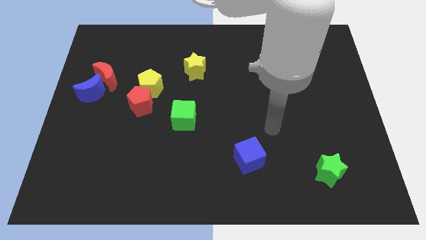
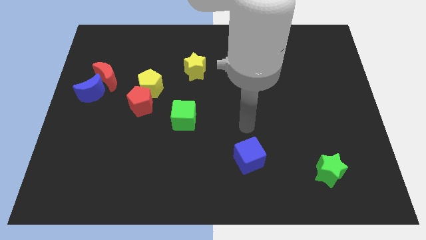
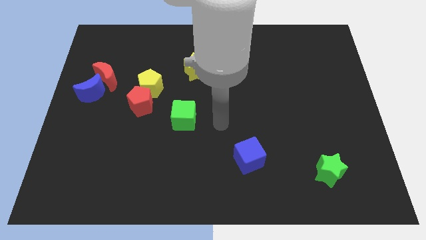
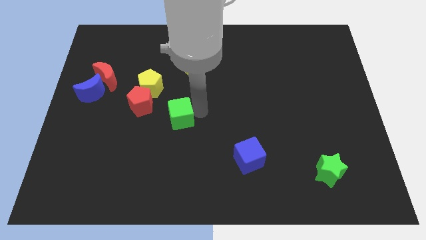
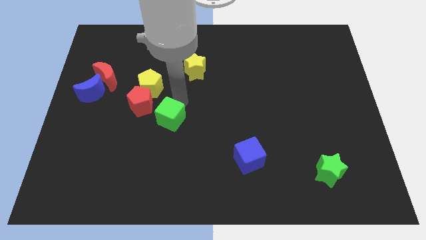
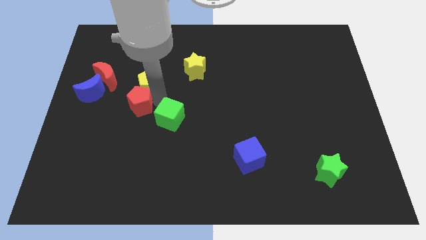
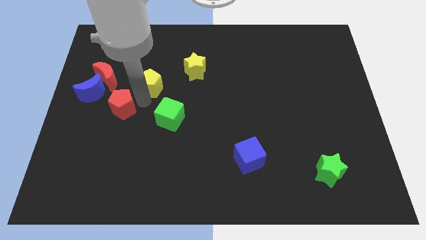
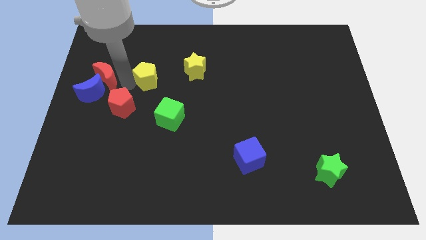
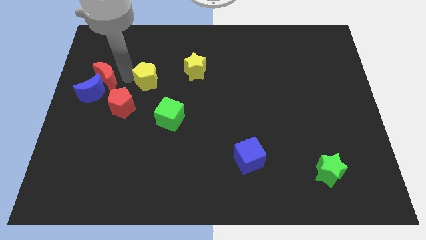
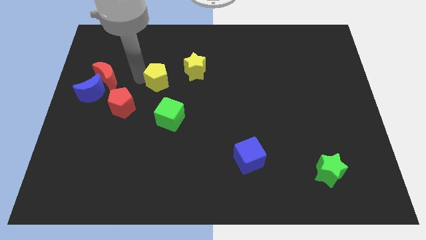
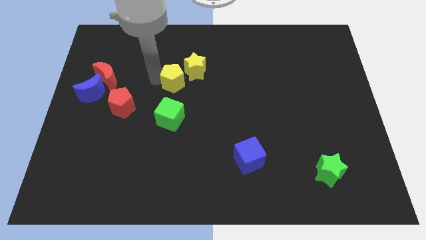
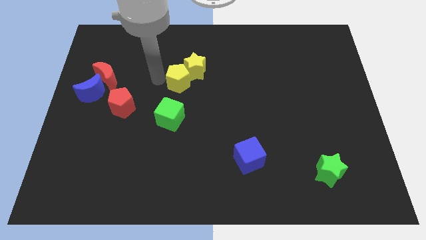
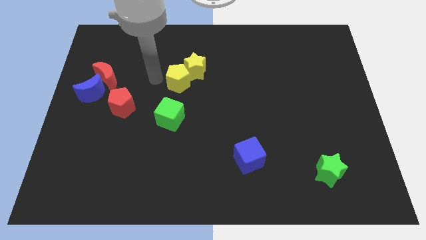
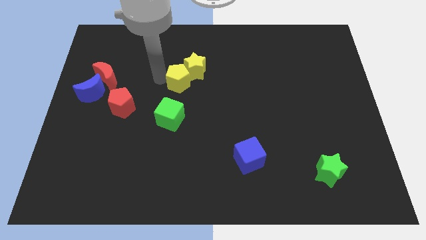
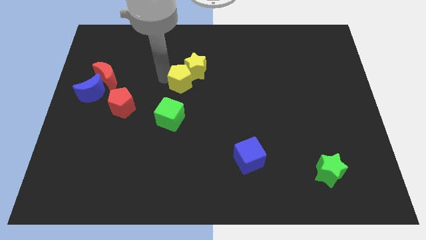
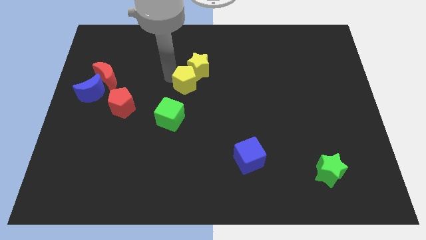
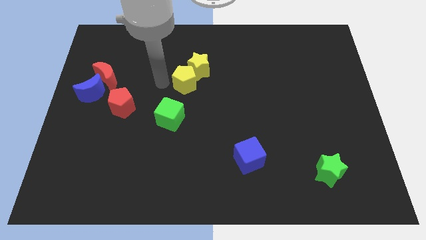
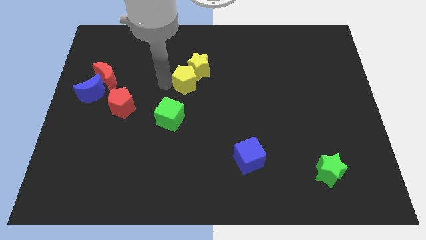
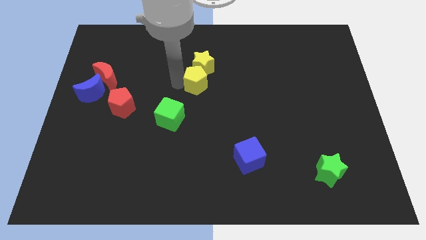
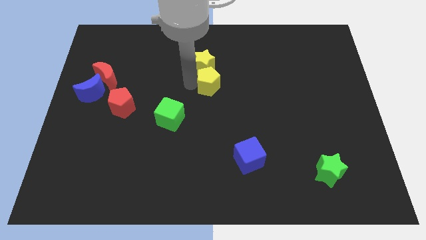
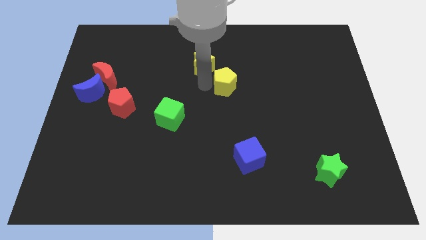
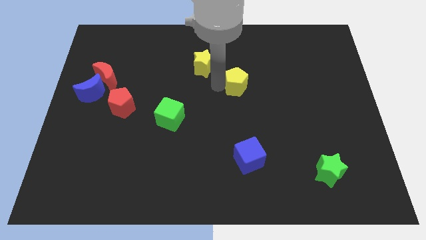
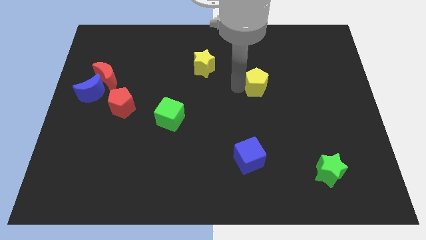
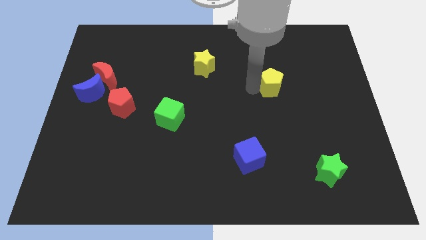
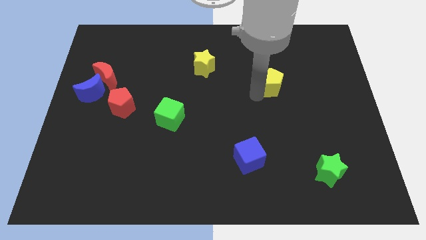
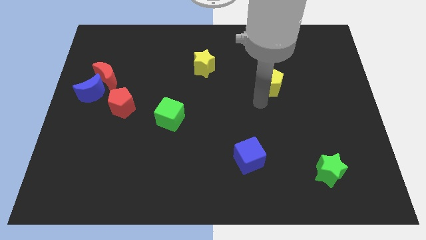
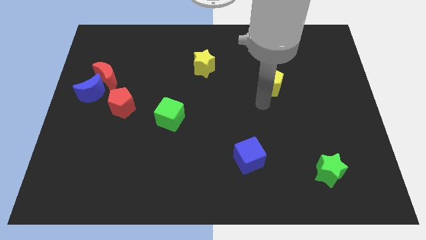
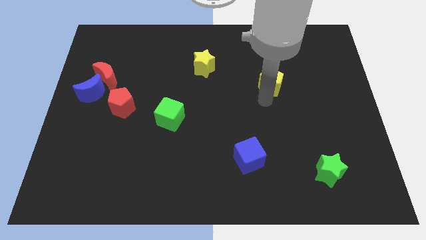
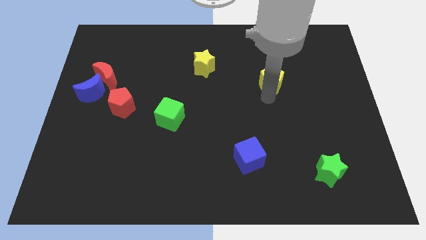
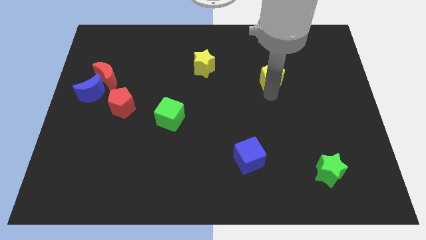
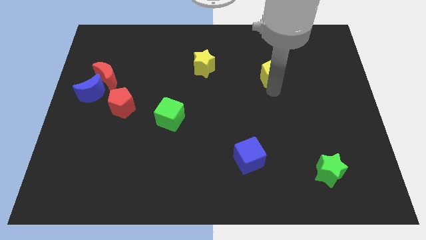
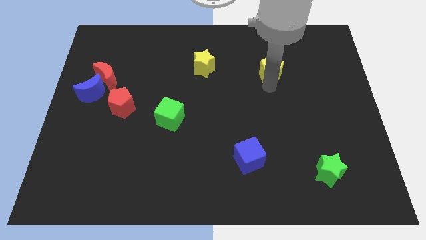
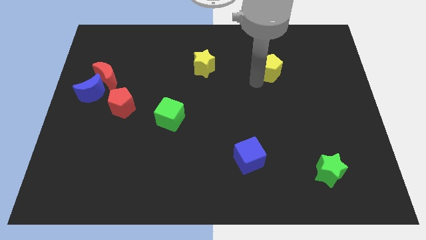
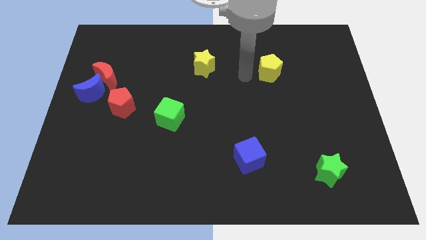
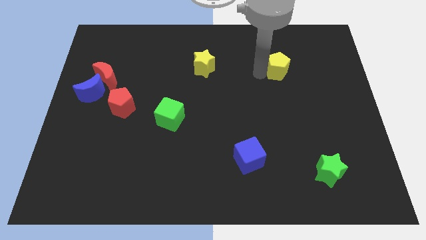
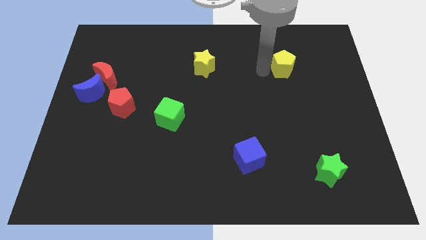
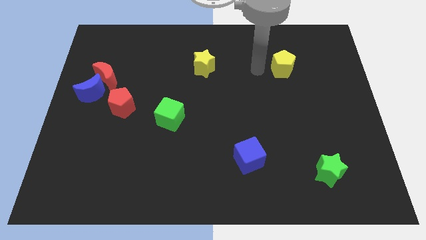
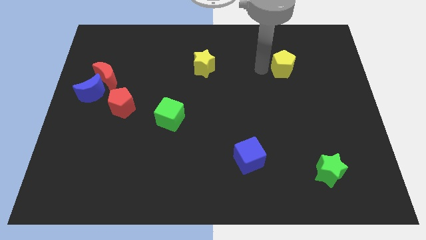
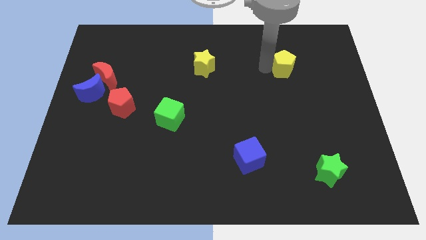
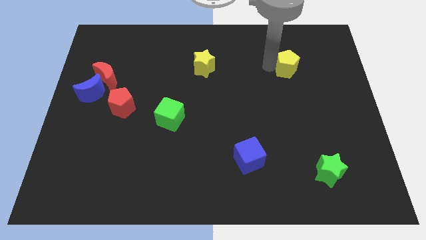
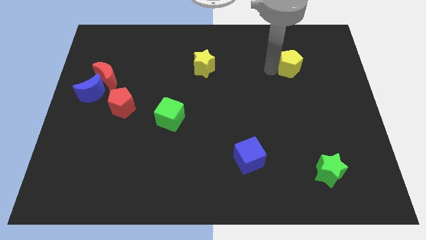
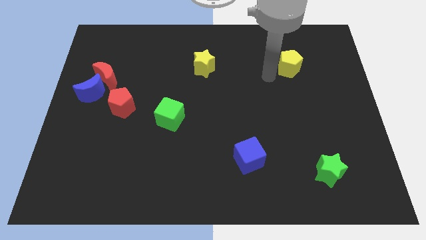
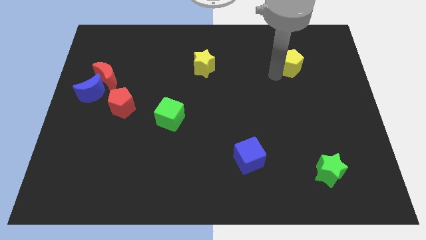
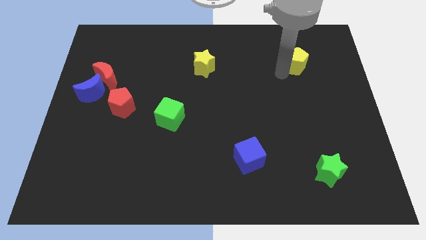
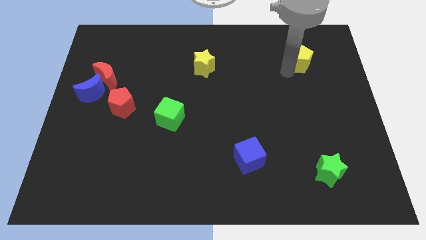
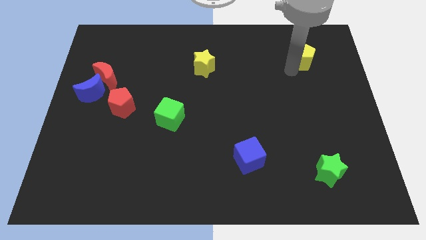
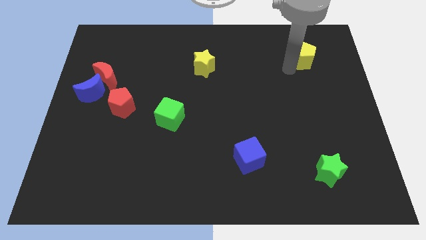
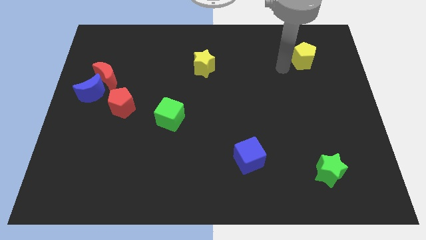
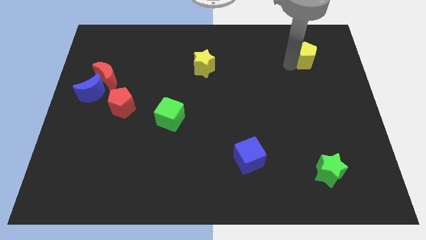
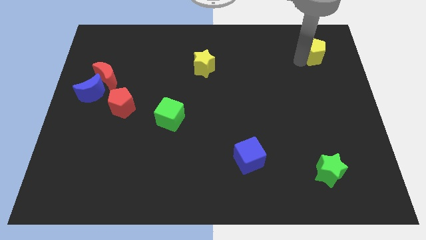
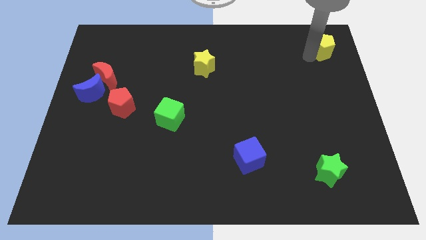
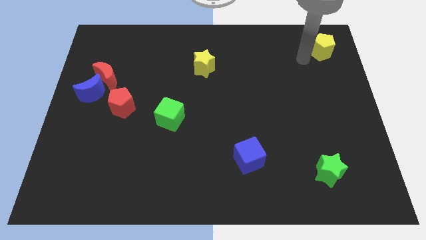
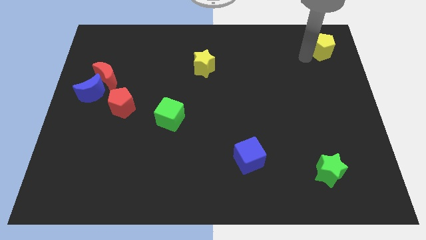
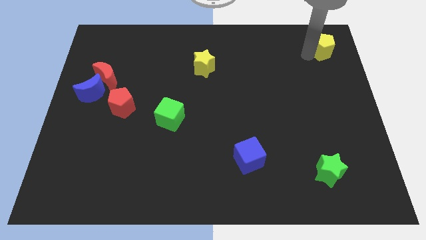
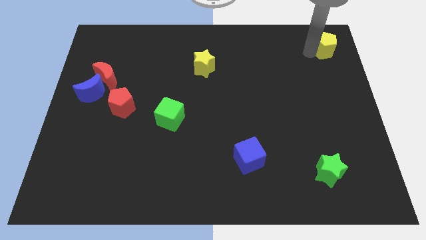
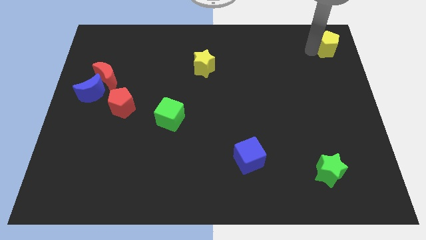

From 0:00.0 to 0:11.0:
put the yellow pentagon to the top right corner
